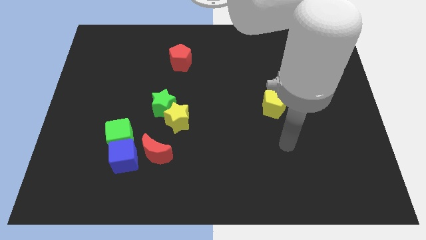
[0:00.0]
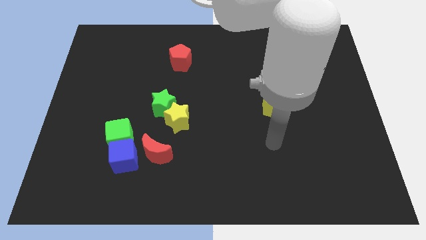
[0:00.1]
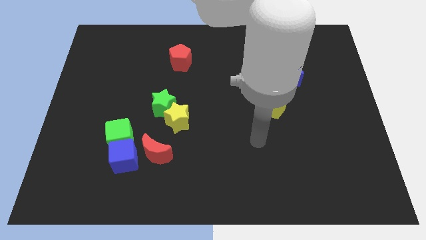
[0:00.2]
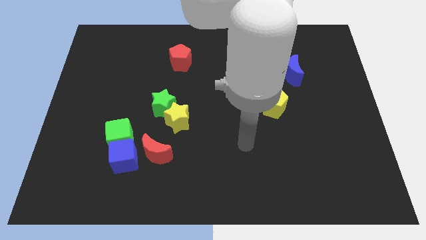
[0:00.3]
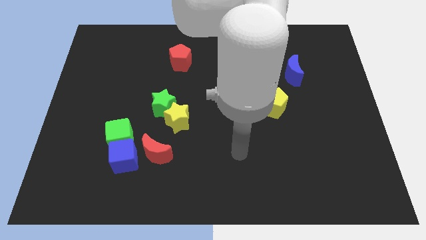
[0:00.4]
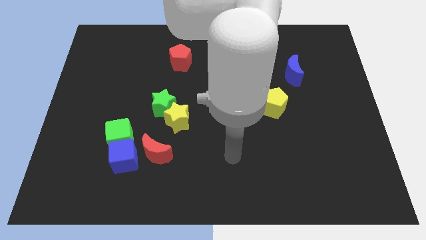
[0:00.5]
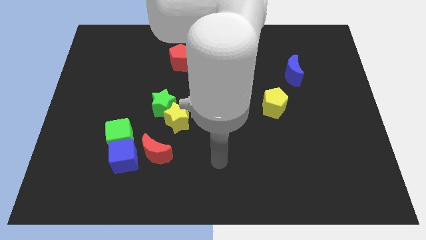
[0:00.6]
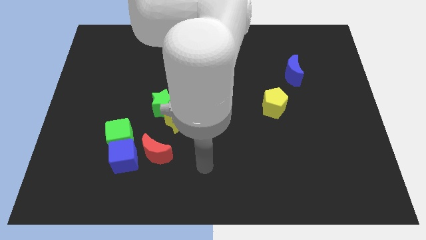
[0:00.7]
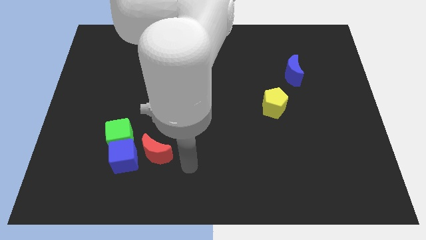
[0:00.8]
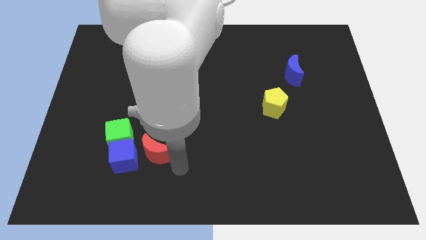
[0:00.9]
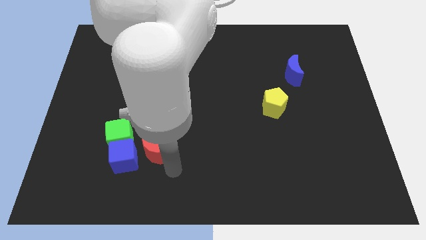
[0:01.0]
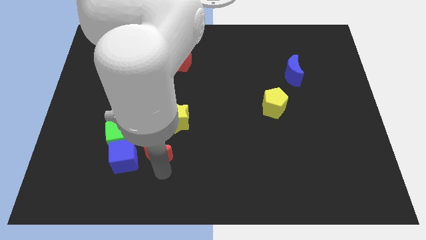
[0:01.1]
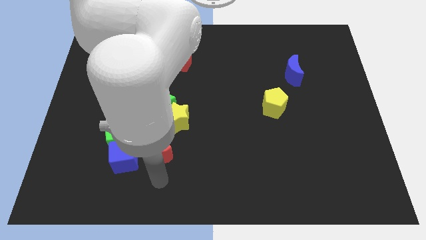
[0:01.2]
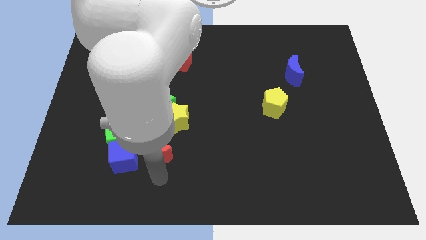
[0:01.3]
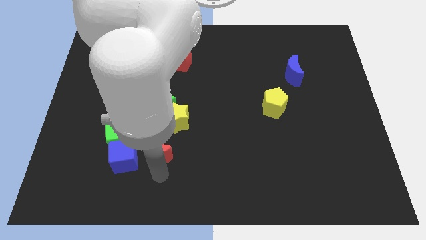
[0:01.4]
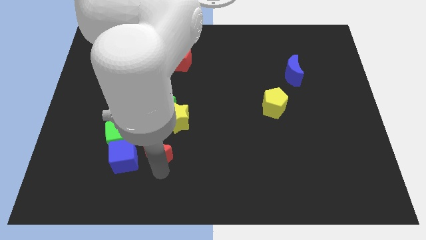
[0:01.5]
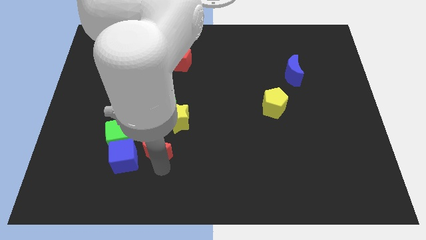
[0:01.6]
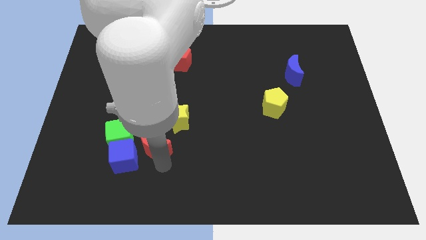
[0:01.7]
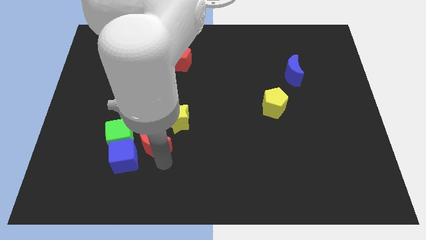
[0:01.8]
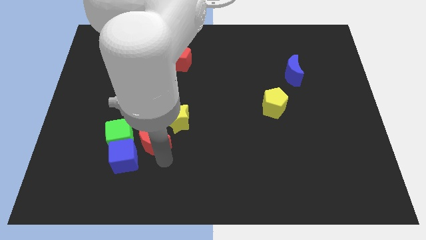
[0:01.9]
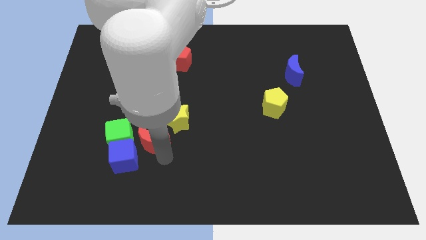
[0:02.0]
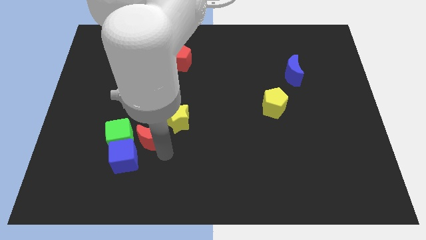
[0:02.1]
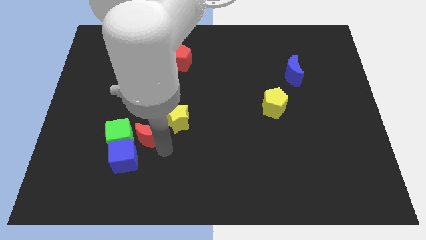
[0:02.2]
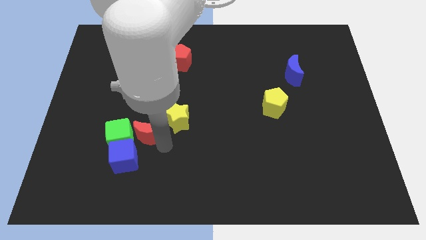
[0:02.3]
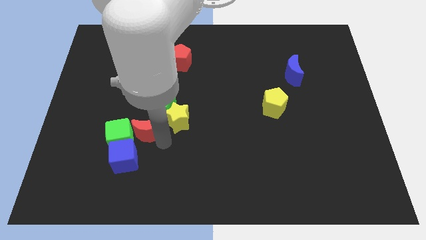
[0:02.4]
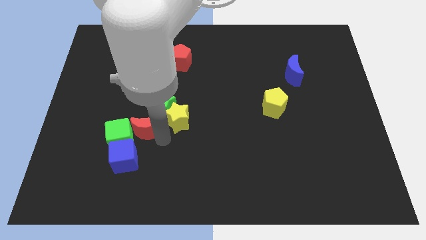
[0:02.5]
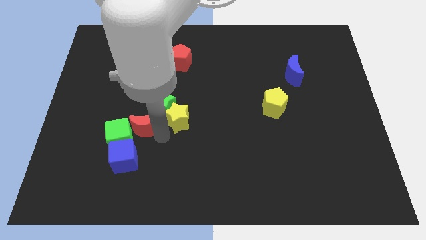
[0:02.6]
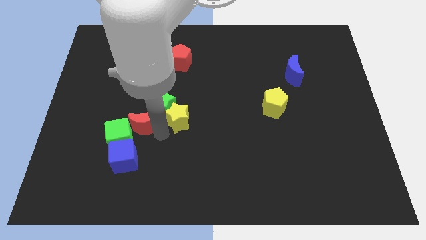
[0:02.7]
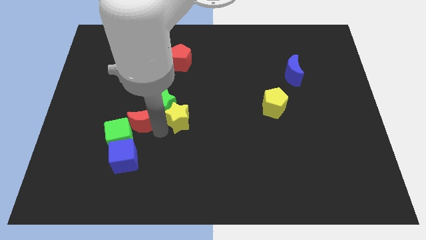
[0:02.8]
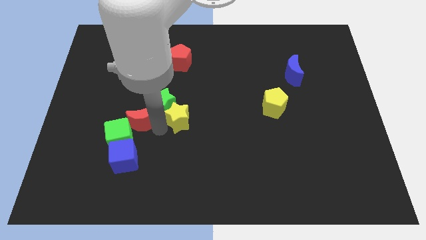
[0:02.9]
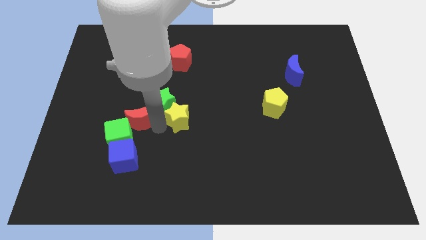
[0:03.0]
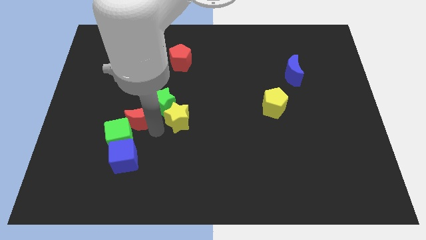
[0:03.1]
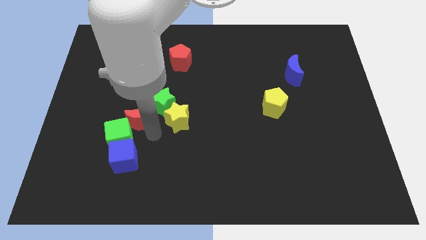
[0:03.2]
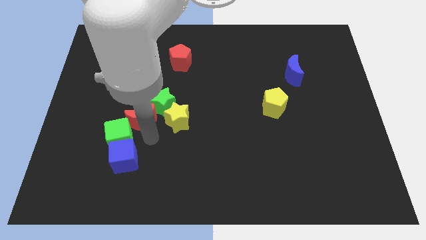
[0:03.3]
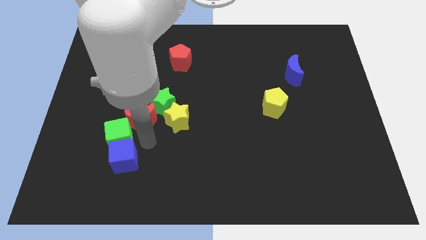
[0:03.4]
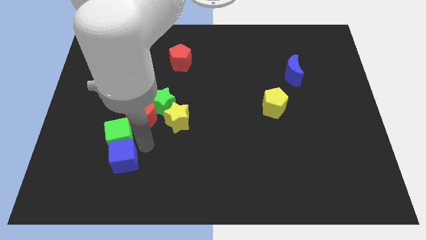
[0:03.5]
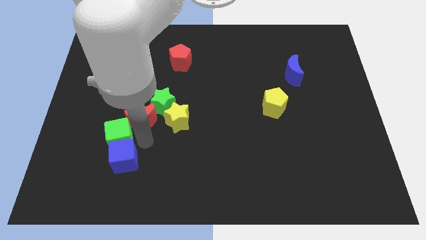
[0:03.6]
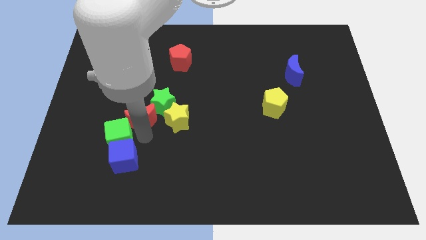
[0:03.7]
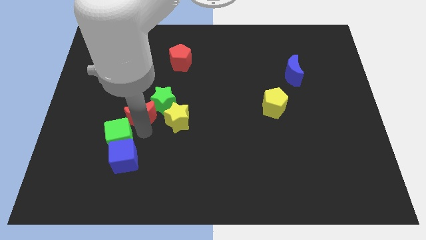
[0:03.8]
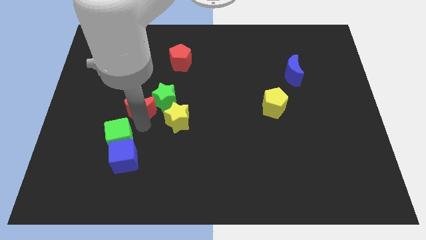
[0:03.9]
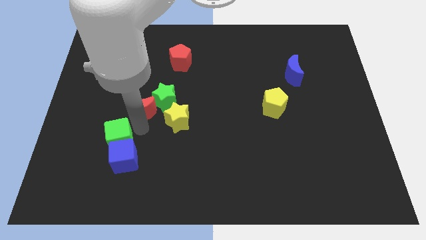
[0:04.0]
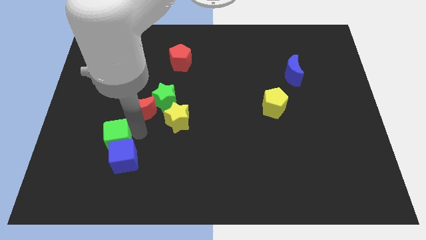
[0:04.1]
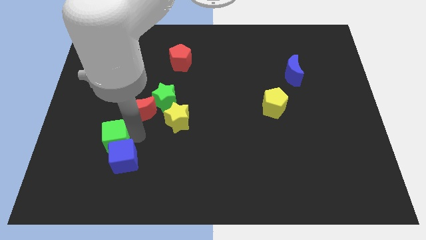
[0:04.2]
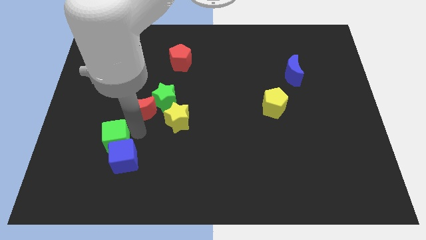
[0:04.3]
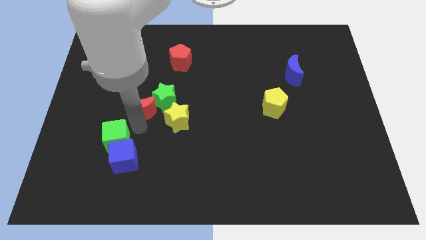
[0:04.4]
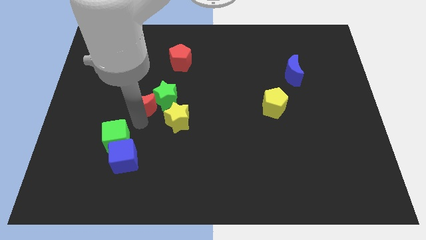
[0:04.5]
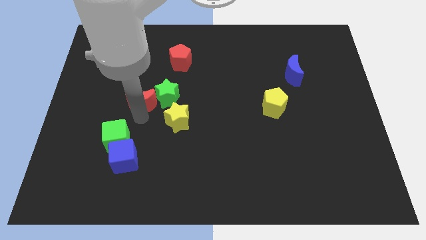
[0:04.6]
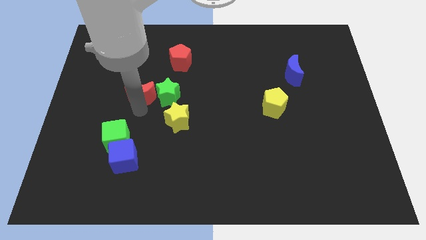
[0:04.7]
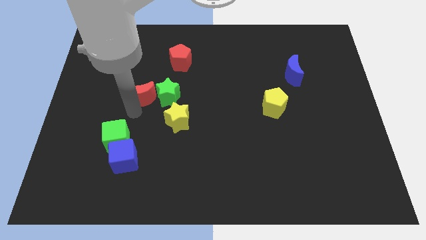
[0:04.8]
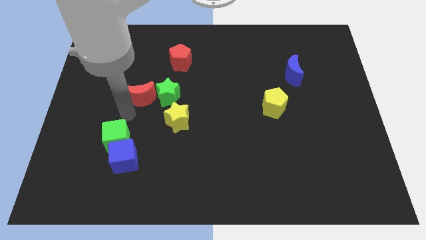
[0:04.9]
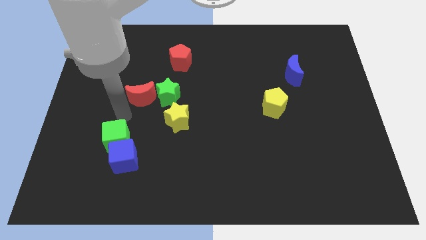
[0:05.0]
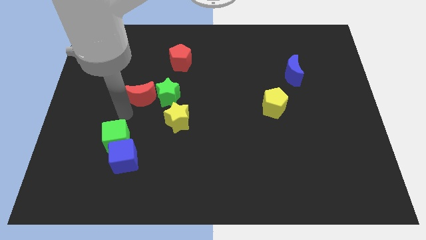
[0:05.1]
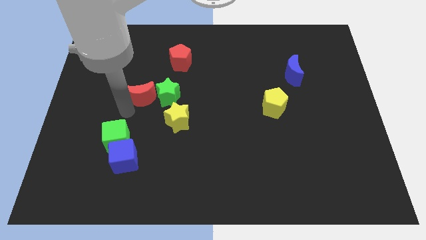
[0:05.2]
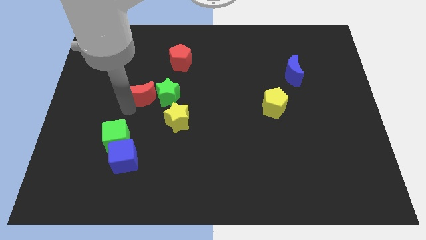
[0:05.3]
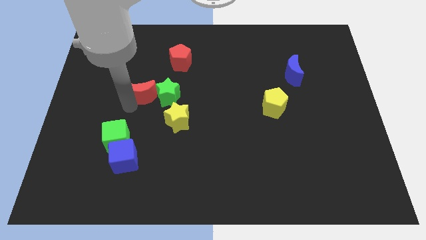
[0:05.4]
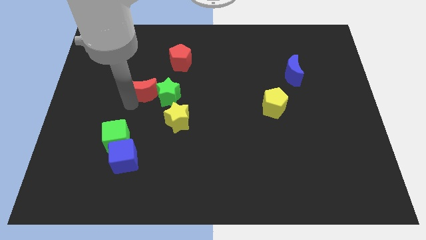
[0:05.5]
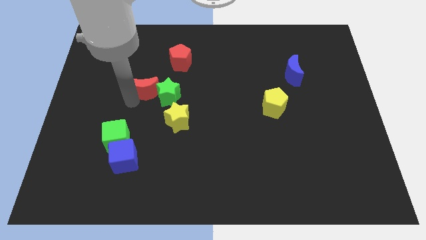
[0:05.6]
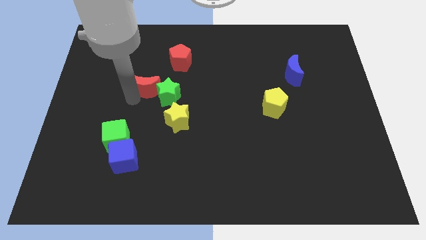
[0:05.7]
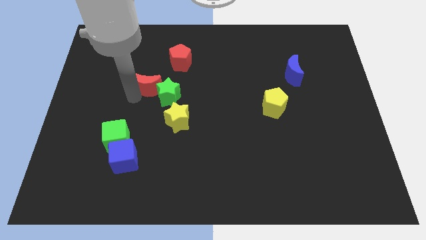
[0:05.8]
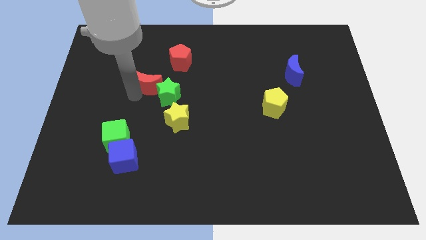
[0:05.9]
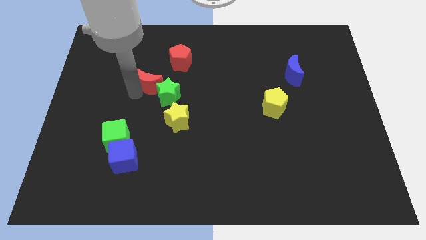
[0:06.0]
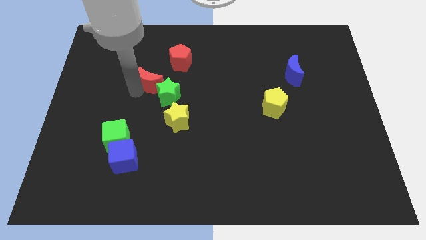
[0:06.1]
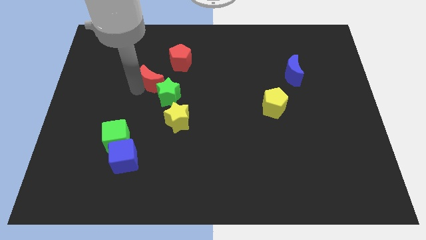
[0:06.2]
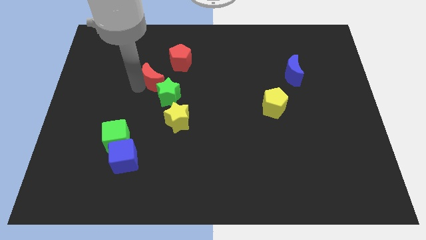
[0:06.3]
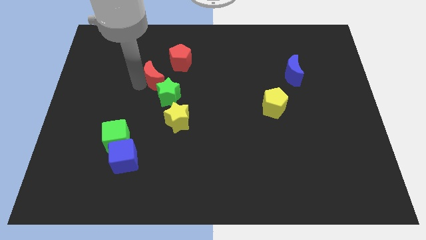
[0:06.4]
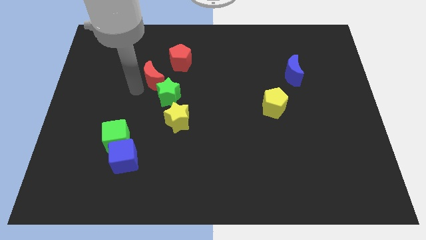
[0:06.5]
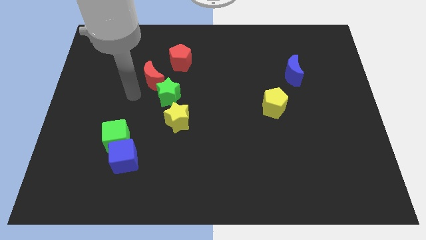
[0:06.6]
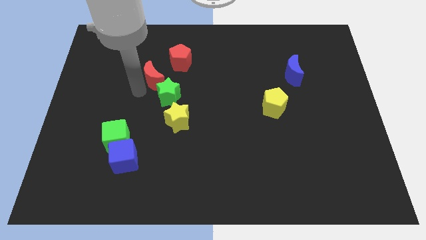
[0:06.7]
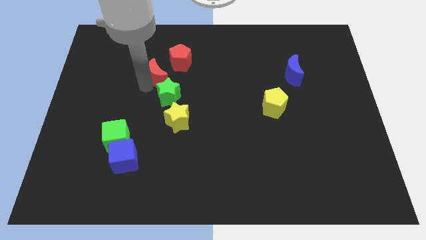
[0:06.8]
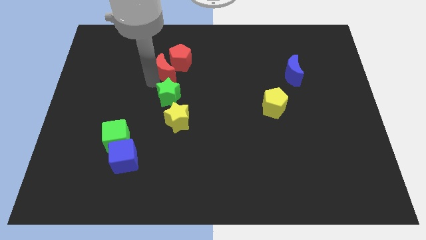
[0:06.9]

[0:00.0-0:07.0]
slide the red moon next to the red pentagon

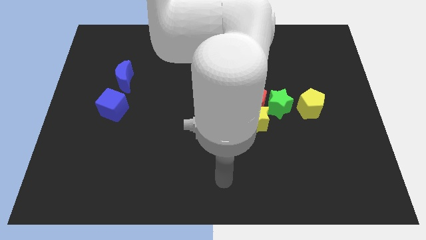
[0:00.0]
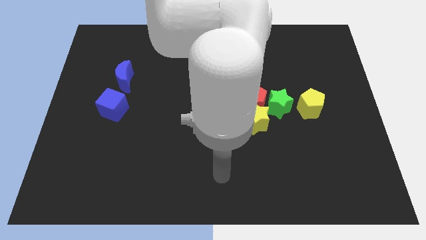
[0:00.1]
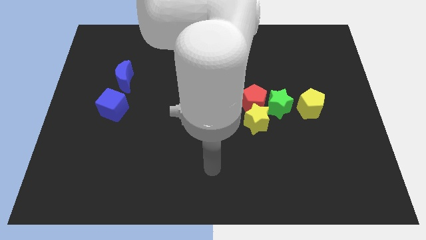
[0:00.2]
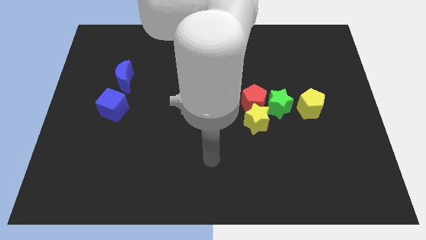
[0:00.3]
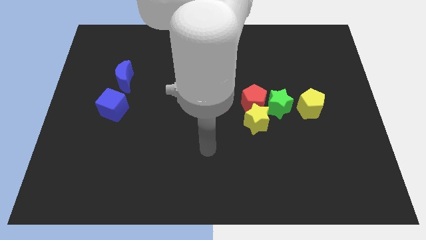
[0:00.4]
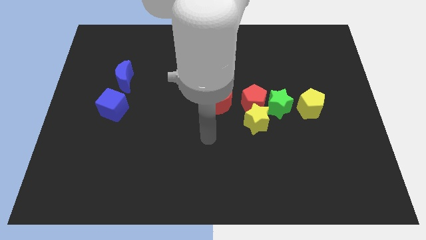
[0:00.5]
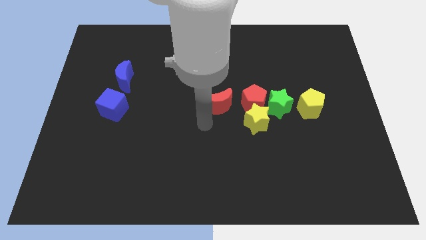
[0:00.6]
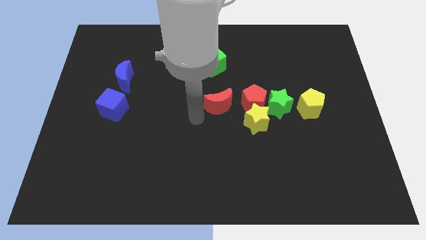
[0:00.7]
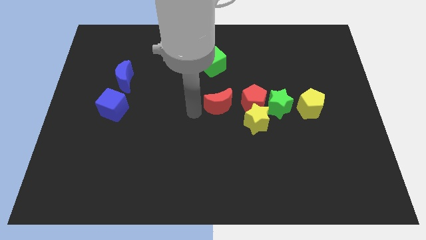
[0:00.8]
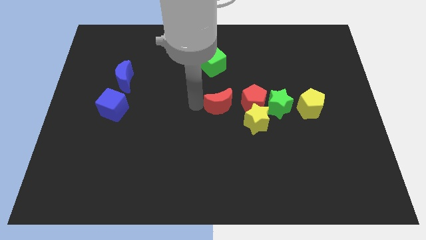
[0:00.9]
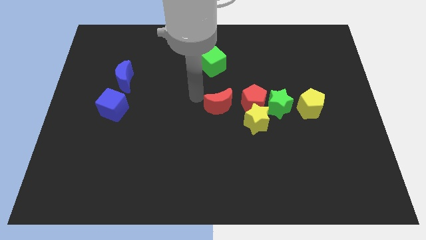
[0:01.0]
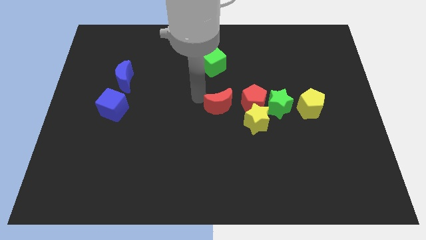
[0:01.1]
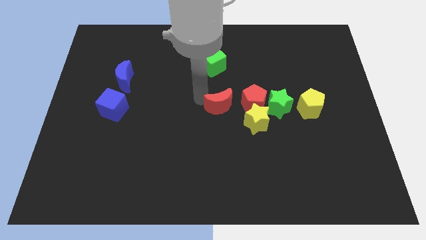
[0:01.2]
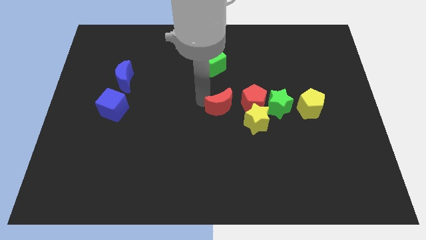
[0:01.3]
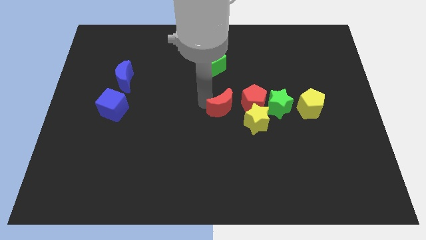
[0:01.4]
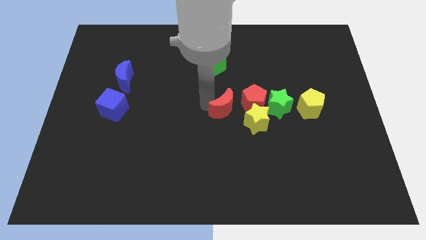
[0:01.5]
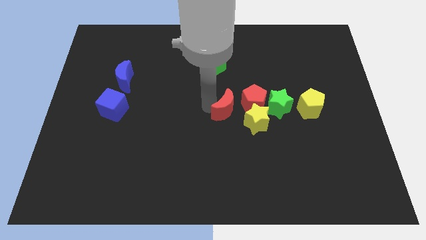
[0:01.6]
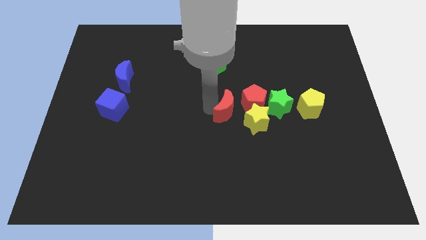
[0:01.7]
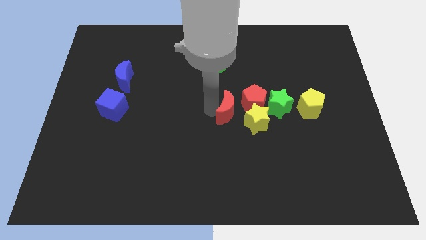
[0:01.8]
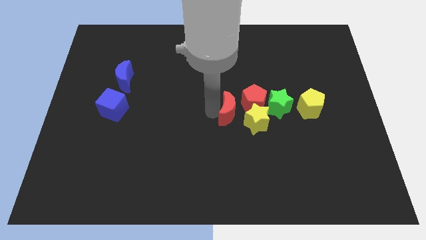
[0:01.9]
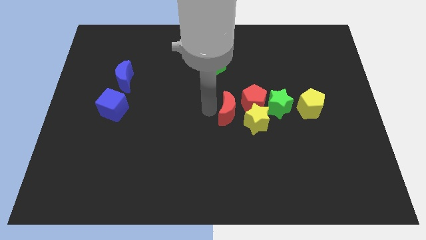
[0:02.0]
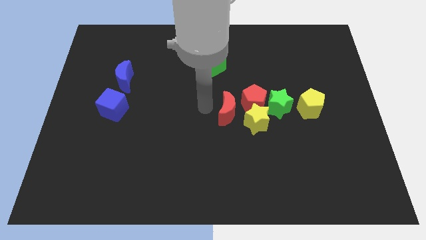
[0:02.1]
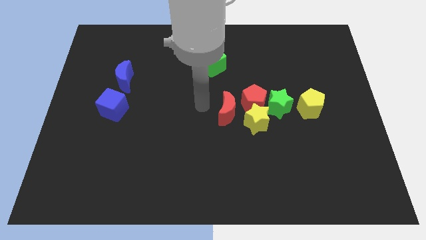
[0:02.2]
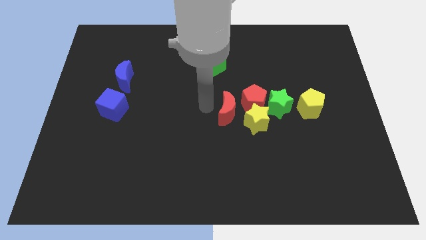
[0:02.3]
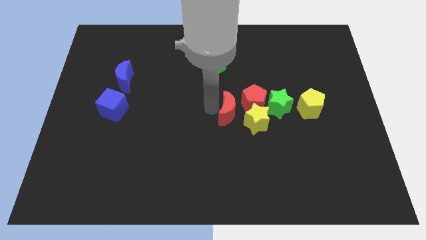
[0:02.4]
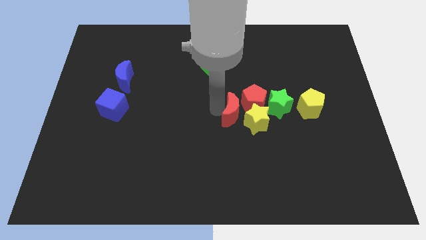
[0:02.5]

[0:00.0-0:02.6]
move the red moon to the yellow star
